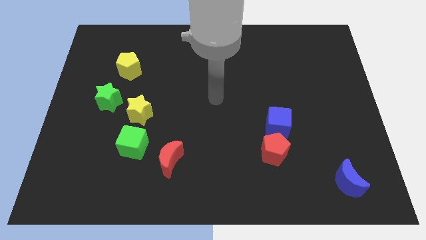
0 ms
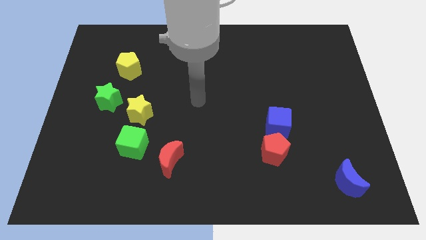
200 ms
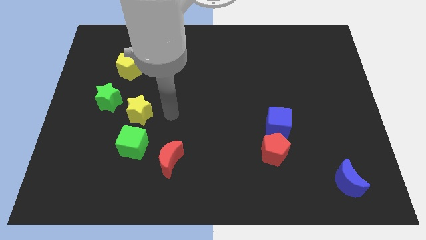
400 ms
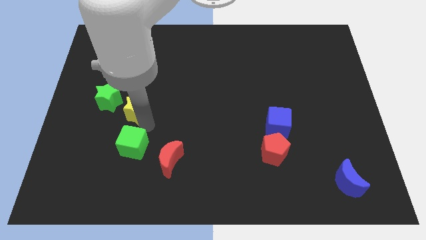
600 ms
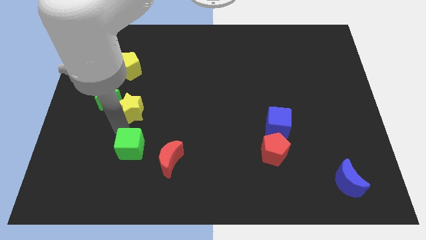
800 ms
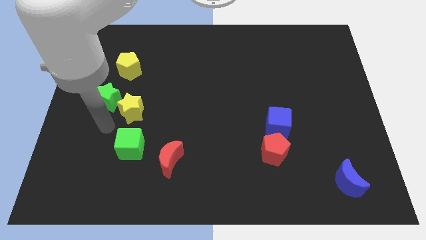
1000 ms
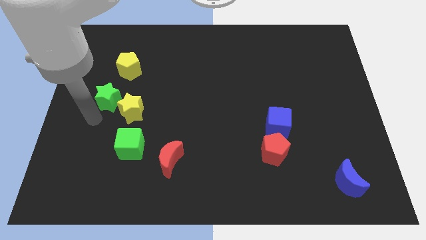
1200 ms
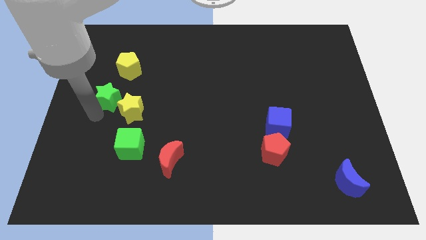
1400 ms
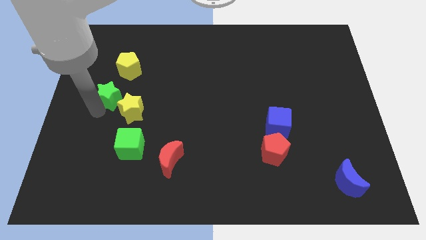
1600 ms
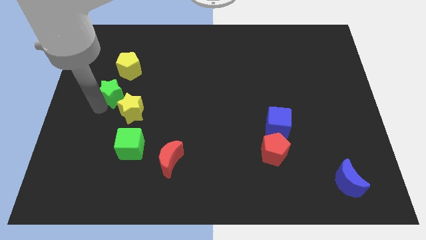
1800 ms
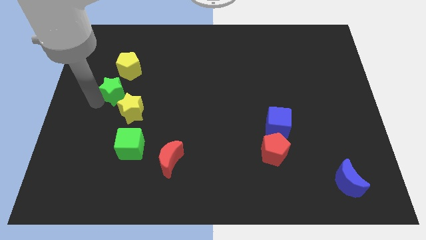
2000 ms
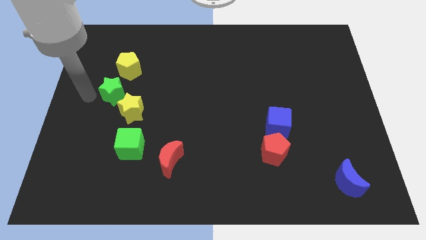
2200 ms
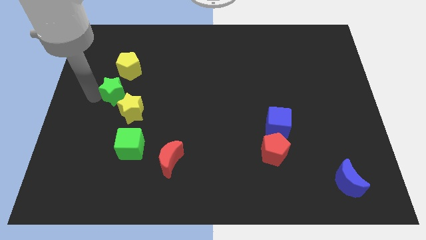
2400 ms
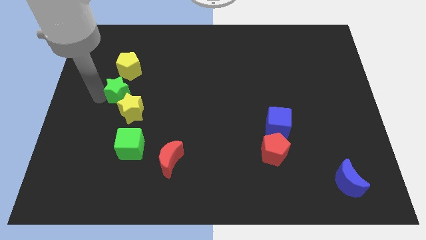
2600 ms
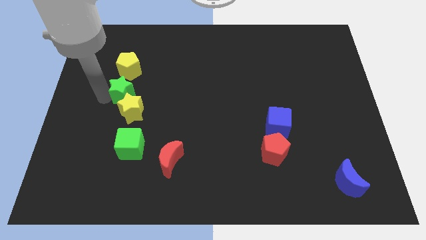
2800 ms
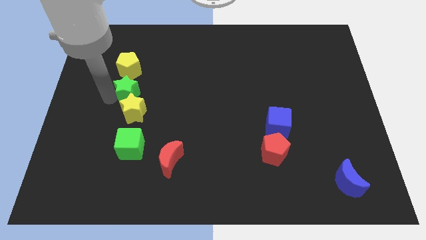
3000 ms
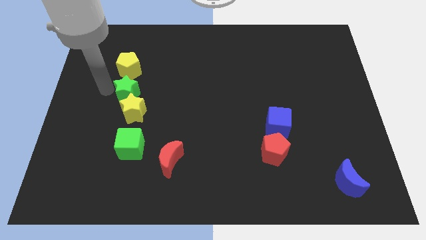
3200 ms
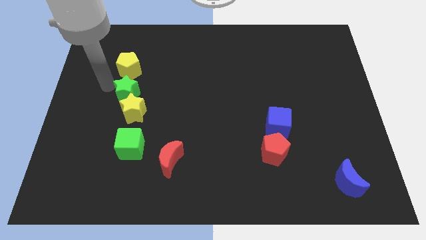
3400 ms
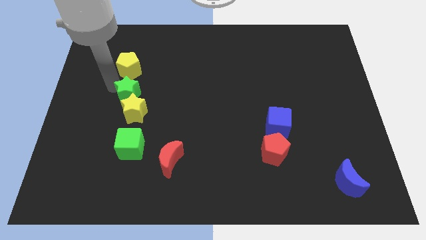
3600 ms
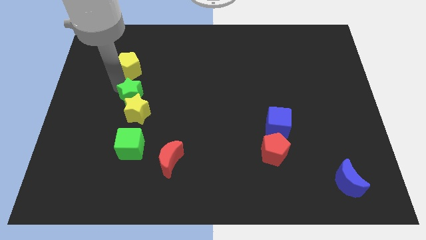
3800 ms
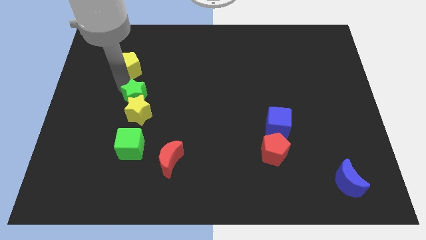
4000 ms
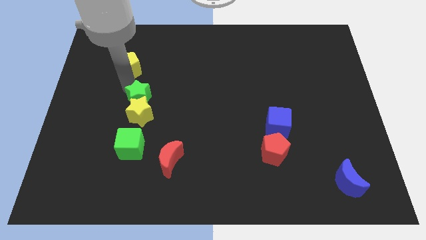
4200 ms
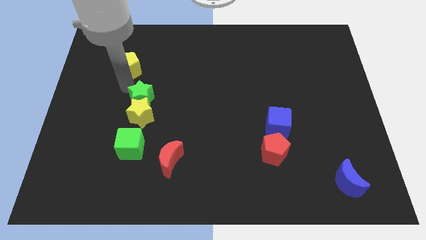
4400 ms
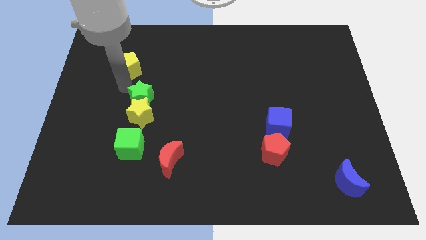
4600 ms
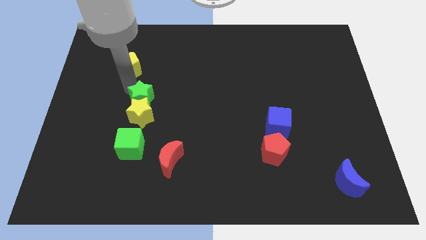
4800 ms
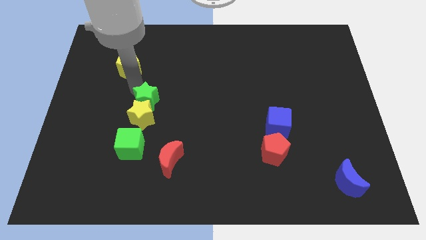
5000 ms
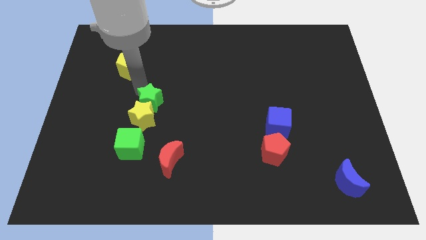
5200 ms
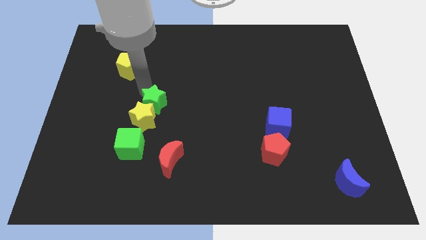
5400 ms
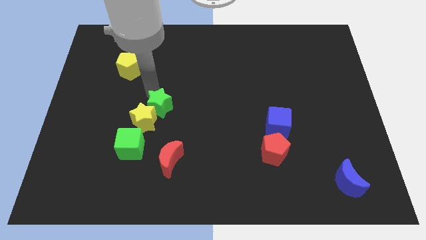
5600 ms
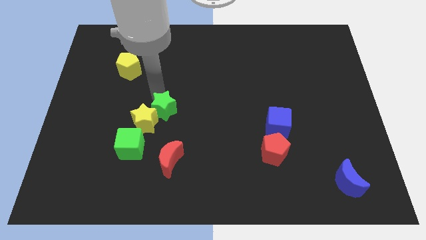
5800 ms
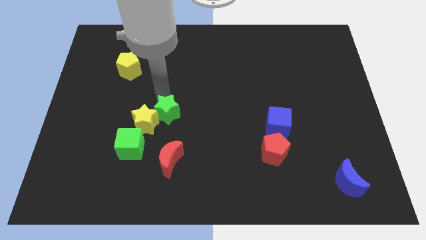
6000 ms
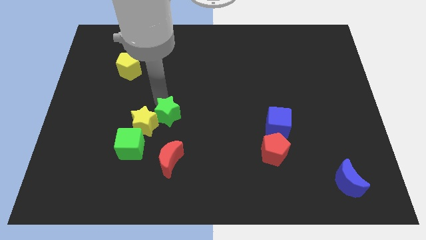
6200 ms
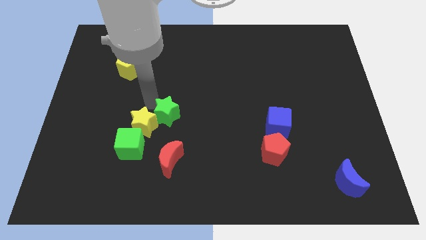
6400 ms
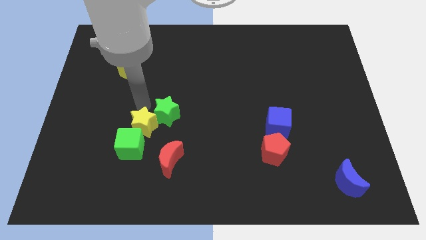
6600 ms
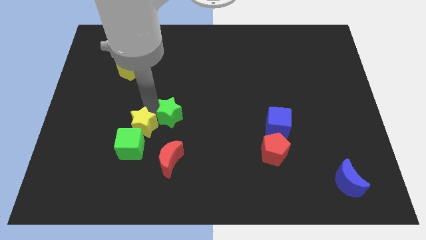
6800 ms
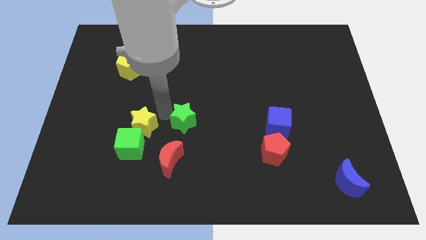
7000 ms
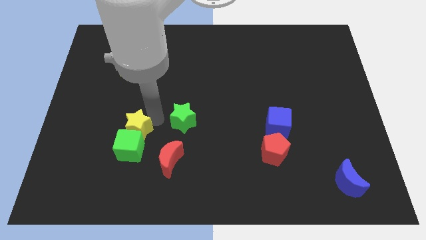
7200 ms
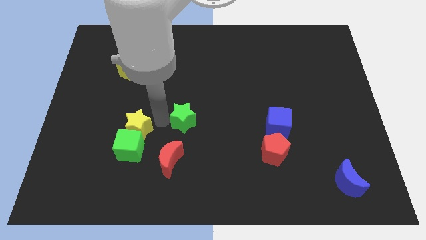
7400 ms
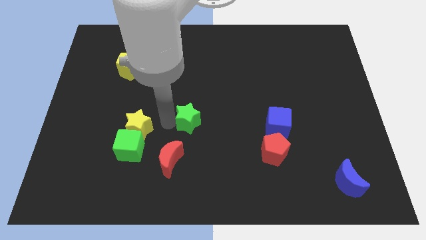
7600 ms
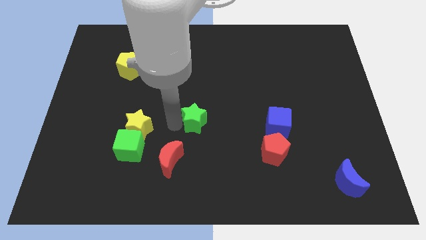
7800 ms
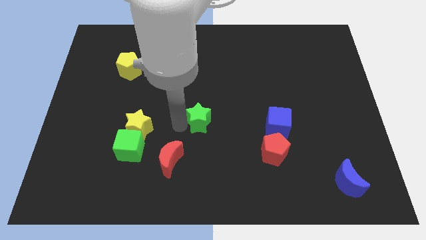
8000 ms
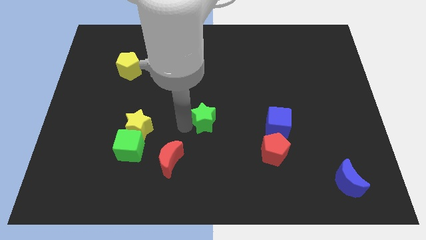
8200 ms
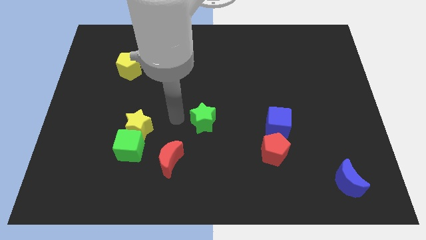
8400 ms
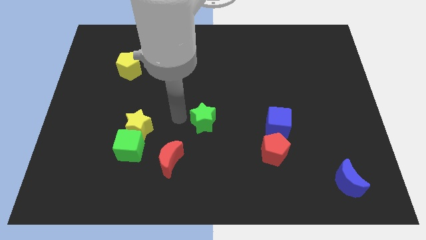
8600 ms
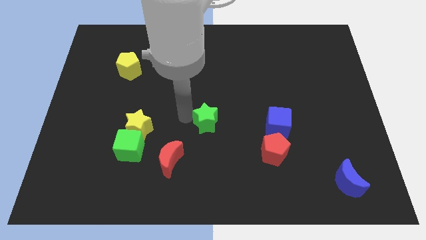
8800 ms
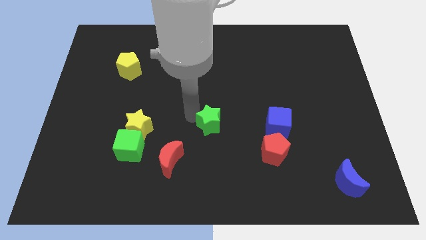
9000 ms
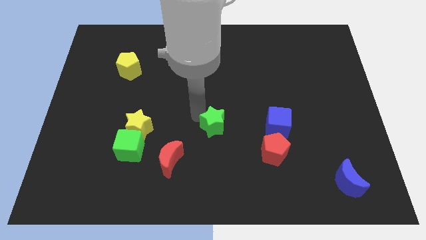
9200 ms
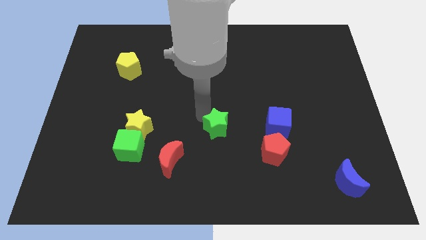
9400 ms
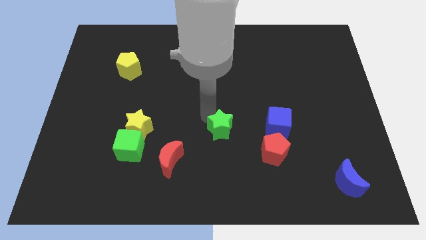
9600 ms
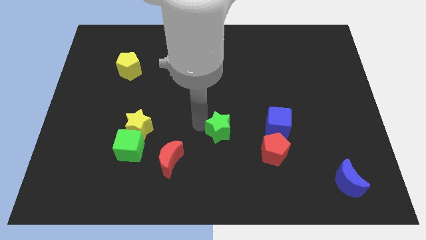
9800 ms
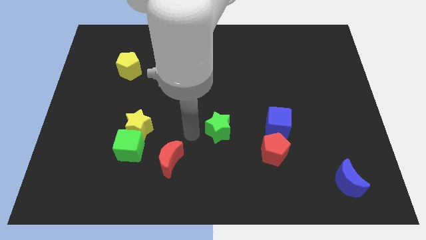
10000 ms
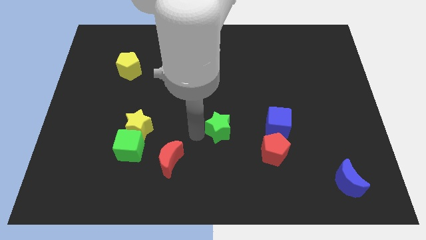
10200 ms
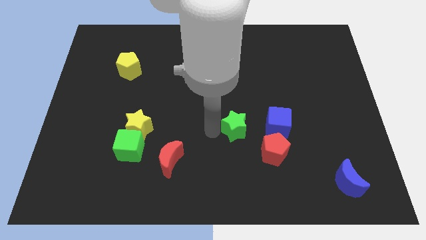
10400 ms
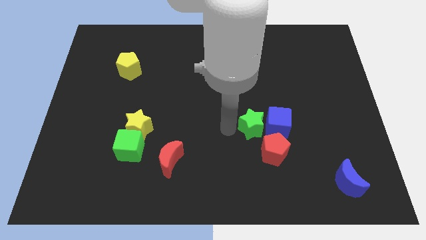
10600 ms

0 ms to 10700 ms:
push the green star towards the blue cube

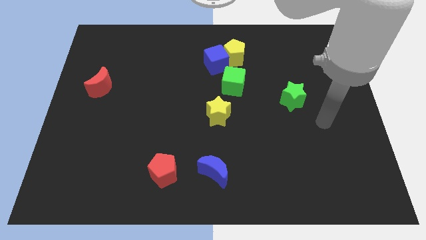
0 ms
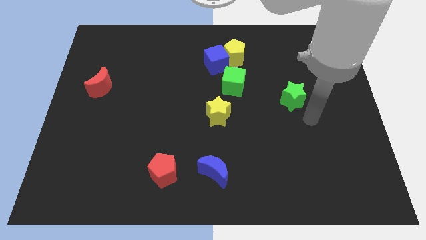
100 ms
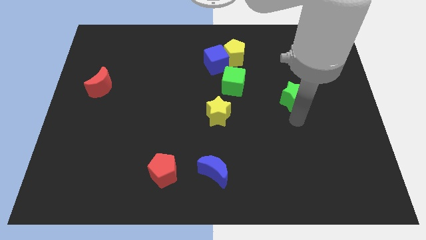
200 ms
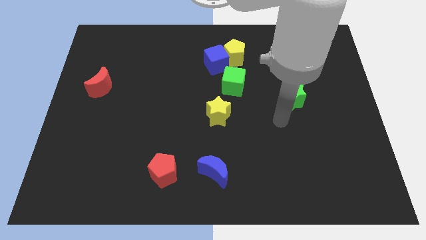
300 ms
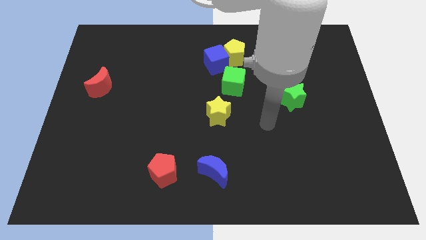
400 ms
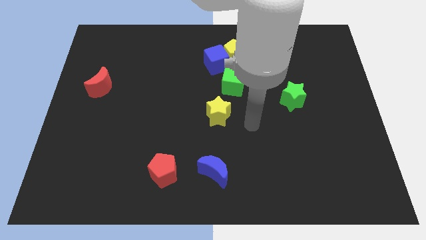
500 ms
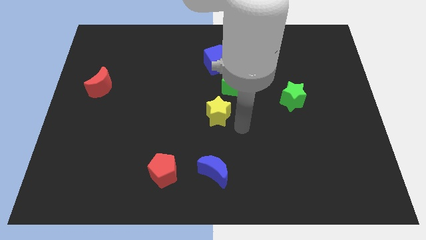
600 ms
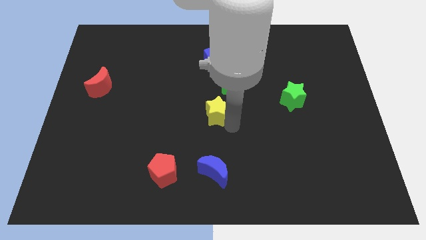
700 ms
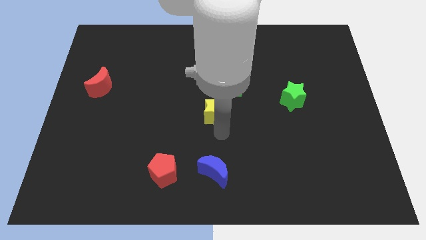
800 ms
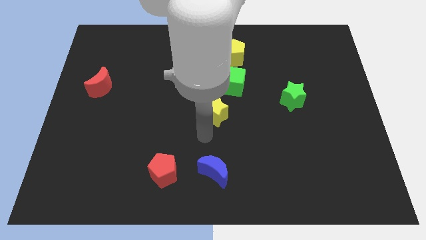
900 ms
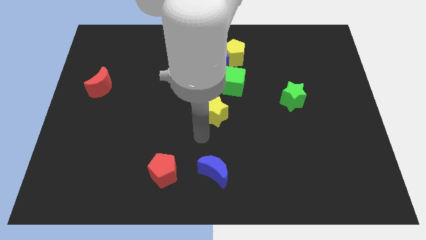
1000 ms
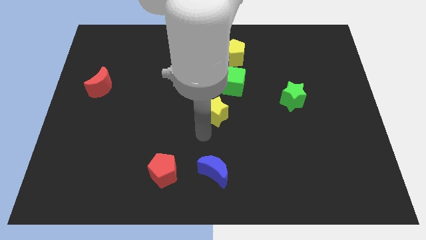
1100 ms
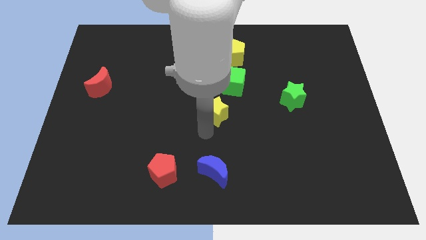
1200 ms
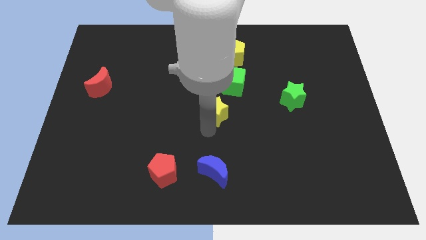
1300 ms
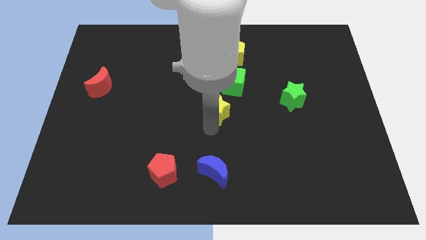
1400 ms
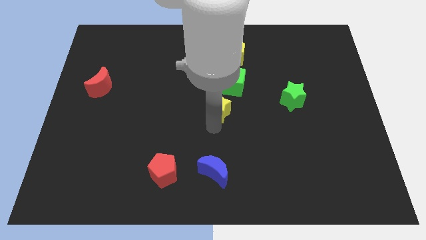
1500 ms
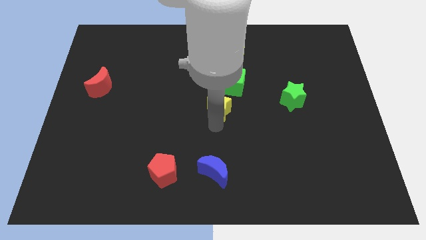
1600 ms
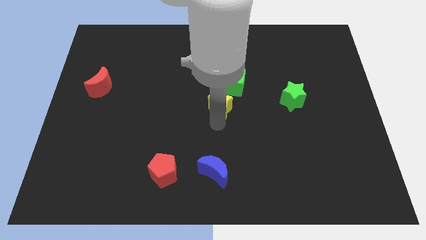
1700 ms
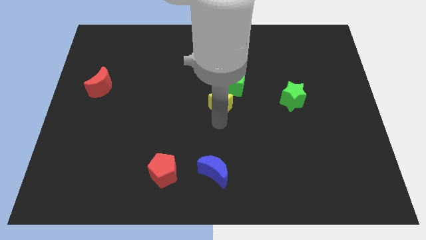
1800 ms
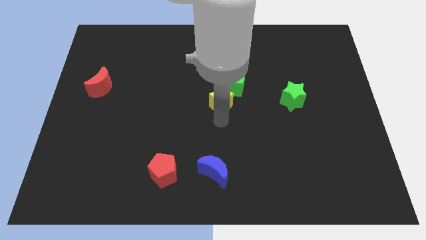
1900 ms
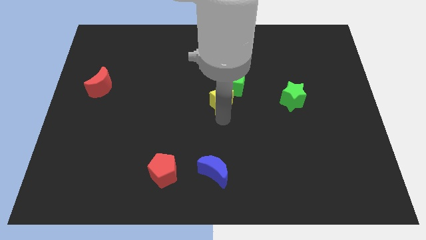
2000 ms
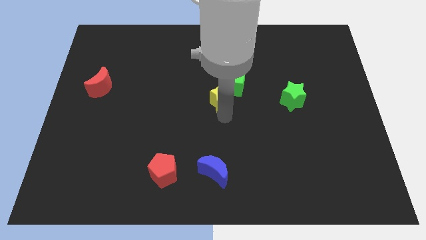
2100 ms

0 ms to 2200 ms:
push the yellow star next to the green cube
